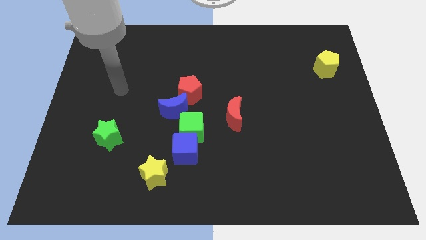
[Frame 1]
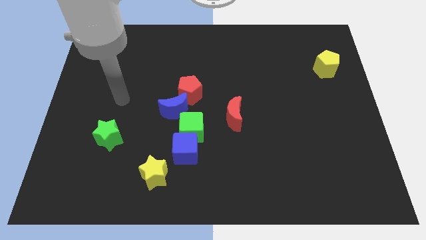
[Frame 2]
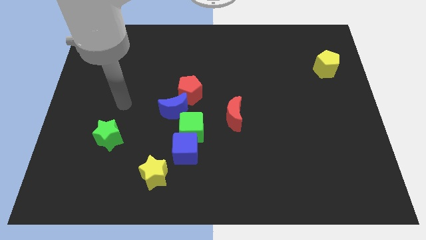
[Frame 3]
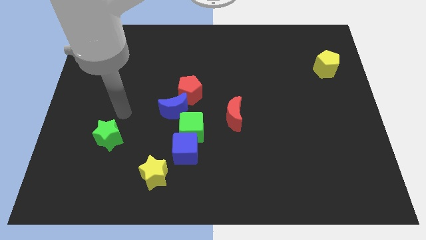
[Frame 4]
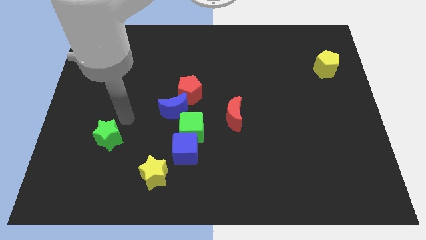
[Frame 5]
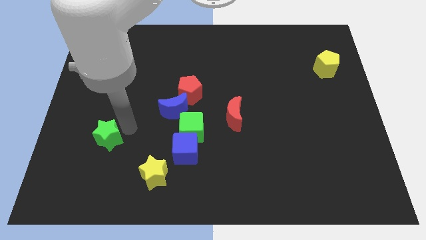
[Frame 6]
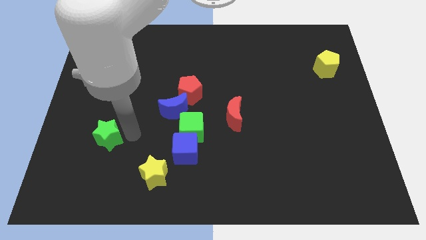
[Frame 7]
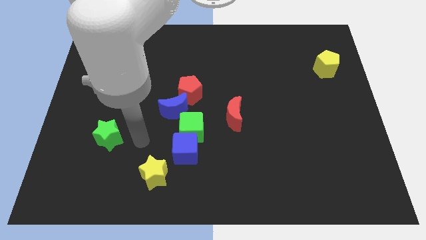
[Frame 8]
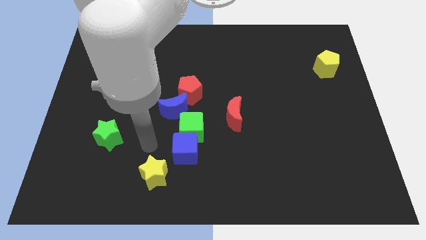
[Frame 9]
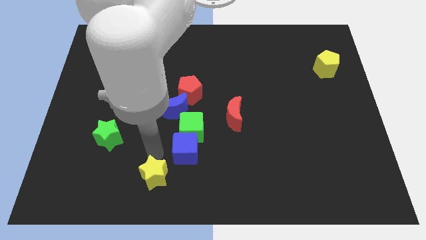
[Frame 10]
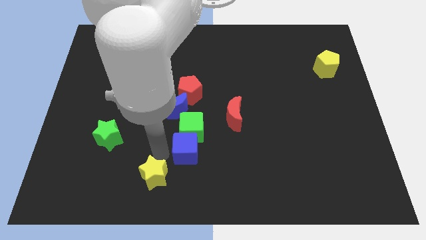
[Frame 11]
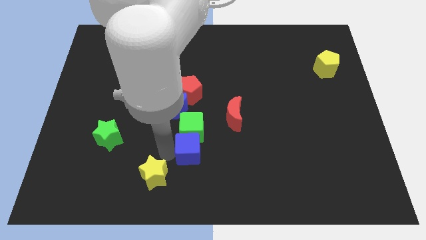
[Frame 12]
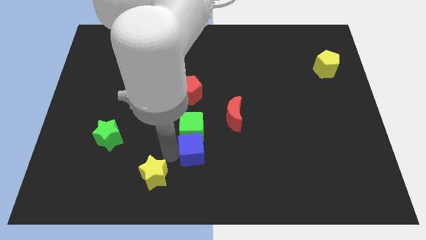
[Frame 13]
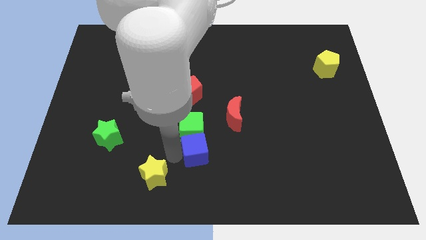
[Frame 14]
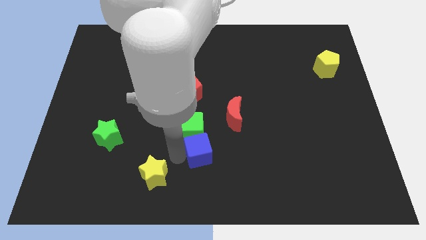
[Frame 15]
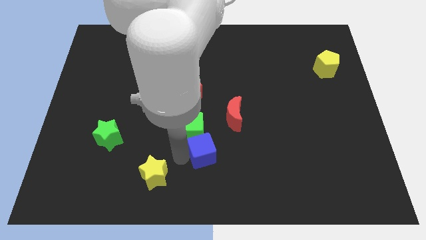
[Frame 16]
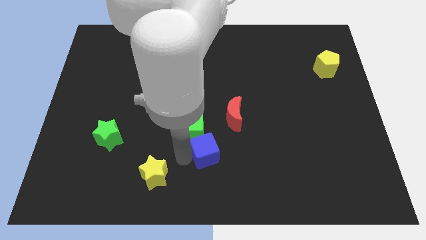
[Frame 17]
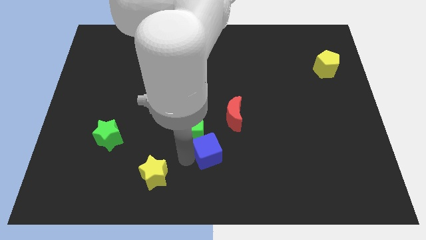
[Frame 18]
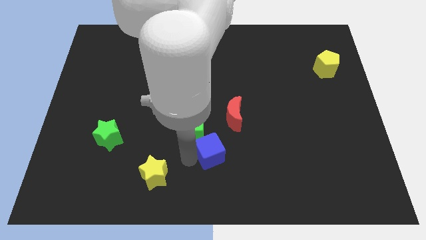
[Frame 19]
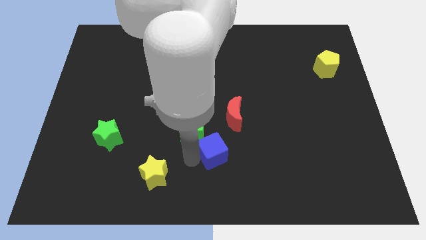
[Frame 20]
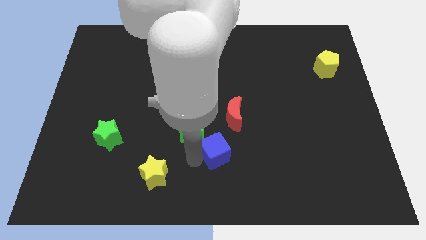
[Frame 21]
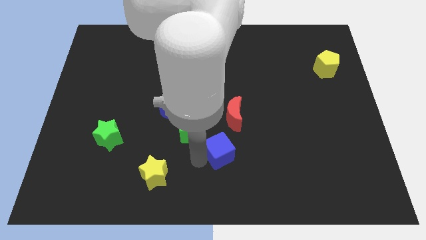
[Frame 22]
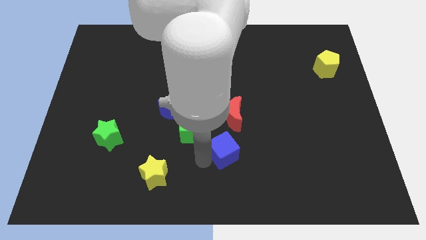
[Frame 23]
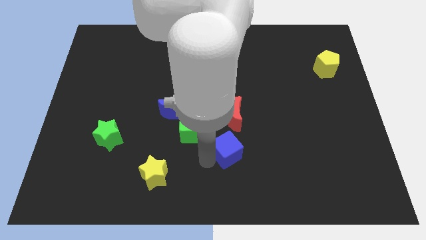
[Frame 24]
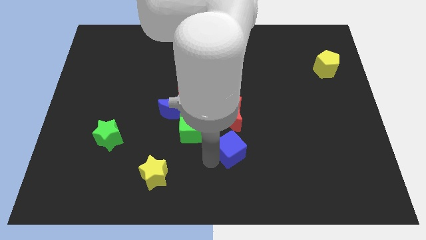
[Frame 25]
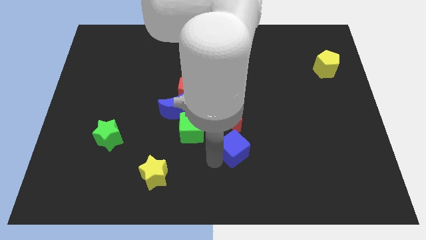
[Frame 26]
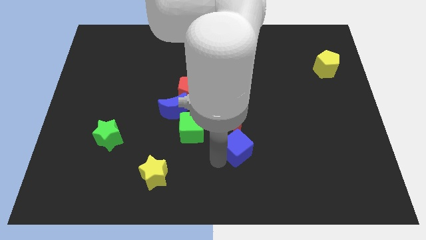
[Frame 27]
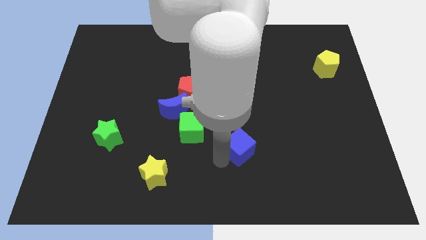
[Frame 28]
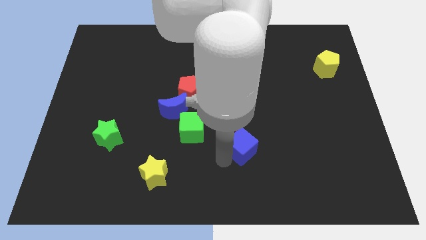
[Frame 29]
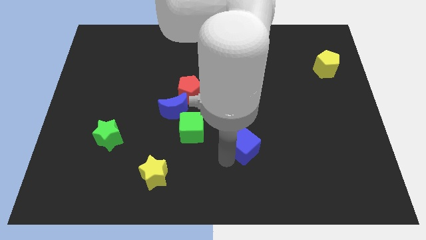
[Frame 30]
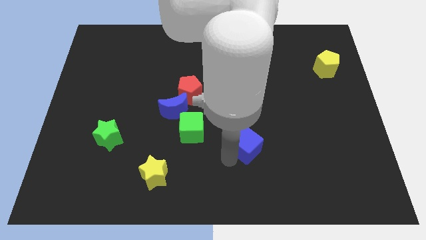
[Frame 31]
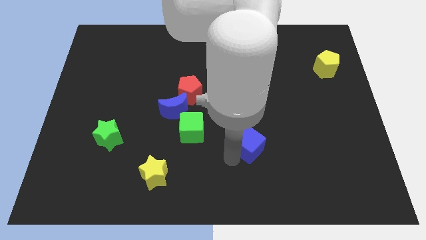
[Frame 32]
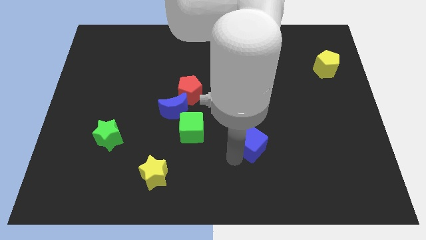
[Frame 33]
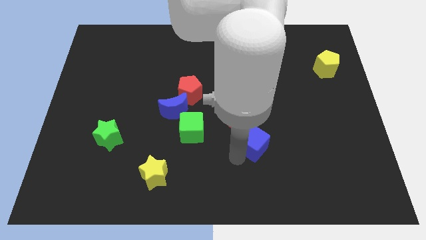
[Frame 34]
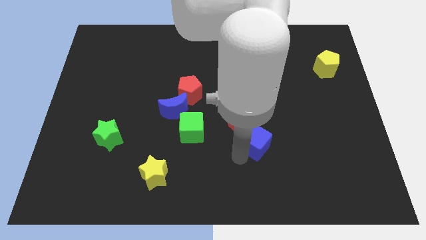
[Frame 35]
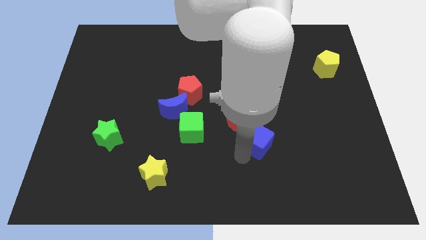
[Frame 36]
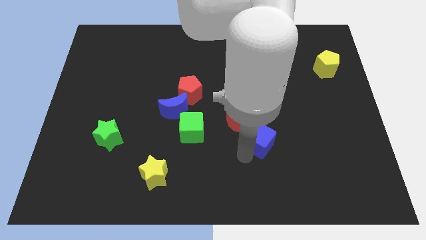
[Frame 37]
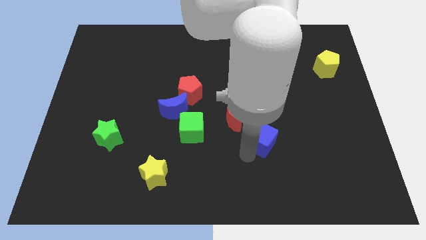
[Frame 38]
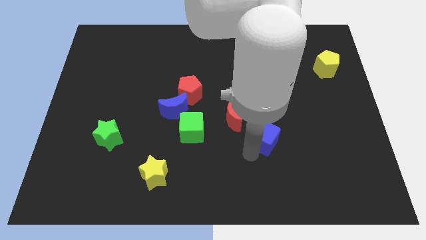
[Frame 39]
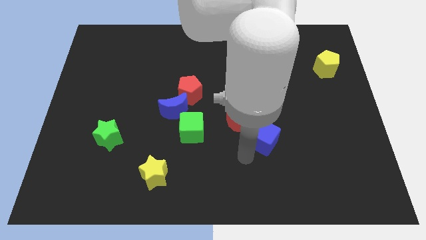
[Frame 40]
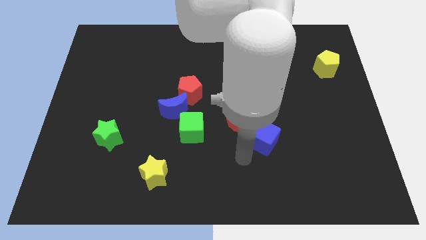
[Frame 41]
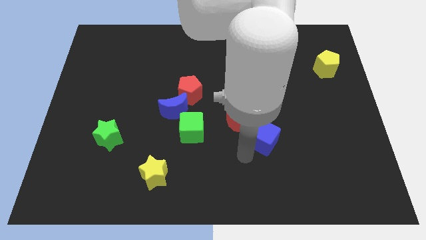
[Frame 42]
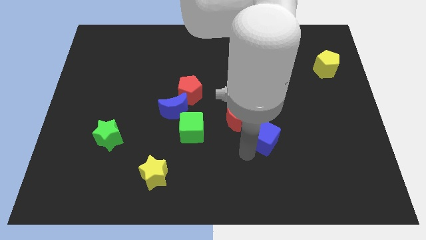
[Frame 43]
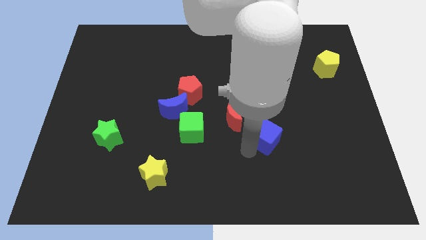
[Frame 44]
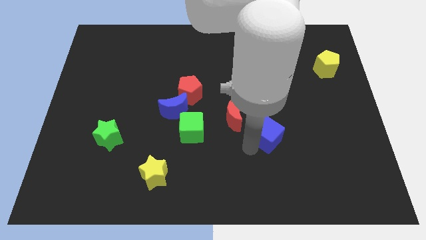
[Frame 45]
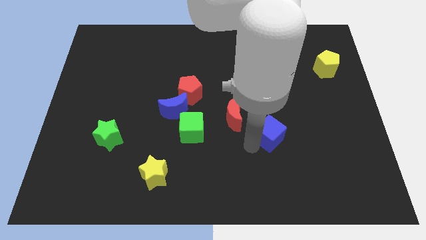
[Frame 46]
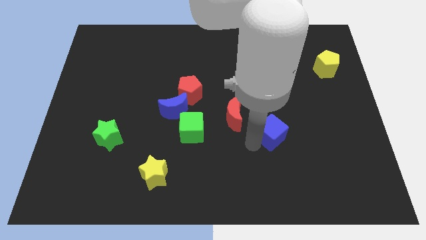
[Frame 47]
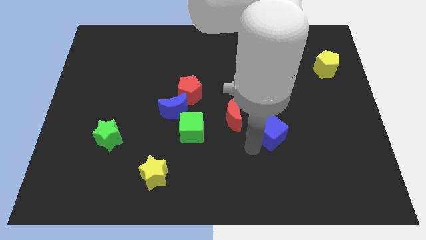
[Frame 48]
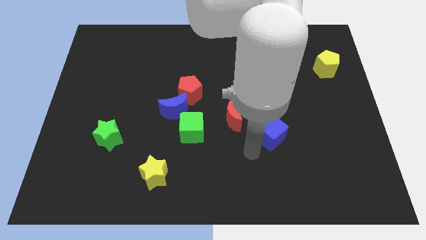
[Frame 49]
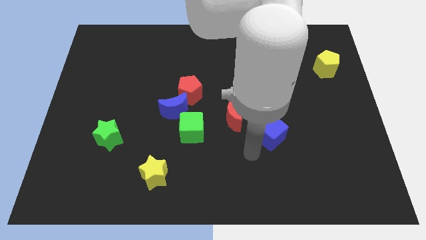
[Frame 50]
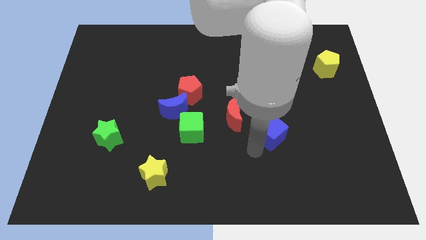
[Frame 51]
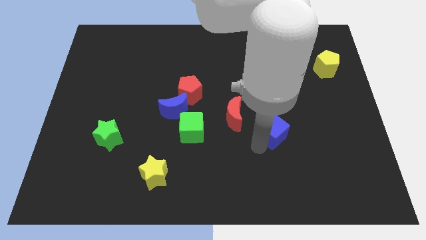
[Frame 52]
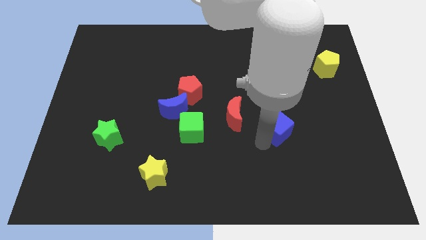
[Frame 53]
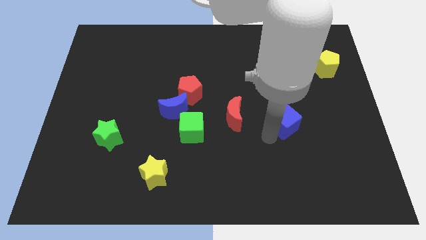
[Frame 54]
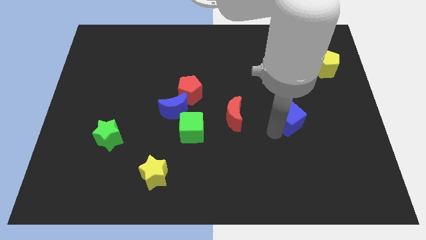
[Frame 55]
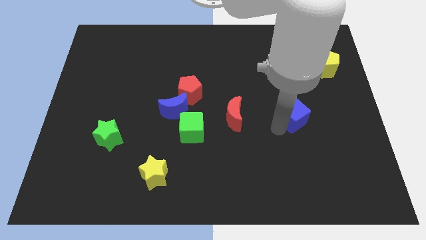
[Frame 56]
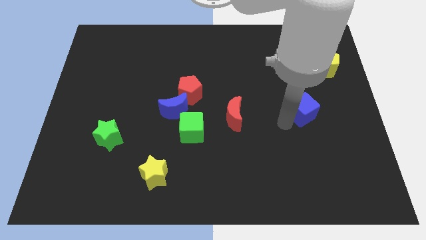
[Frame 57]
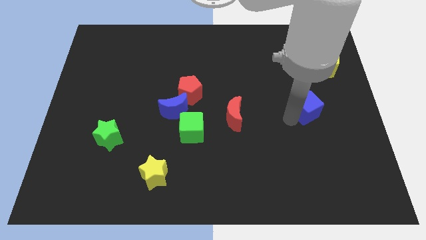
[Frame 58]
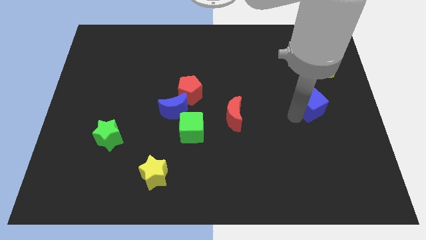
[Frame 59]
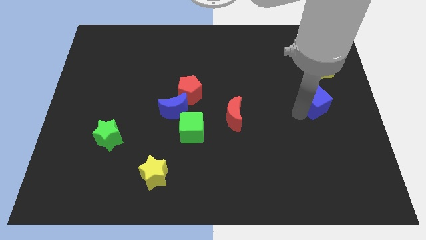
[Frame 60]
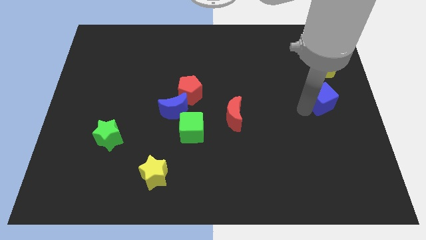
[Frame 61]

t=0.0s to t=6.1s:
slide the blue cube to the right side of the board
